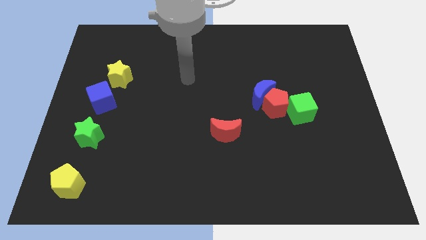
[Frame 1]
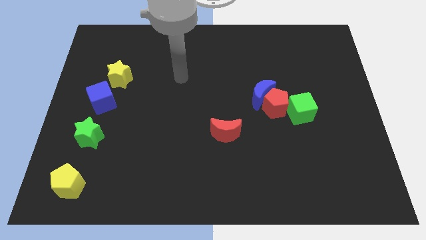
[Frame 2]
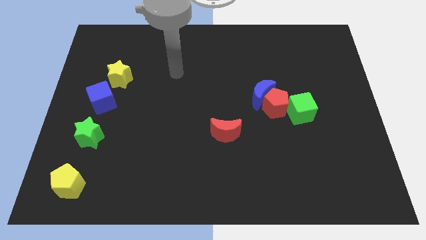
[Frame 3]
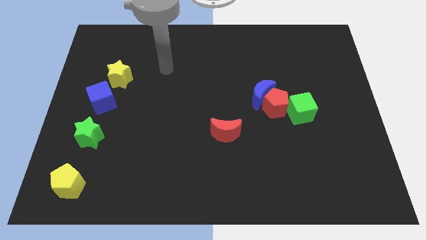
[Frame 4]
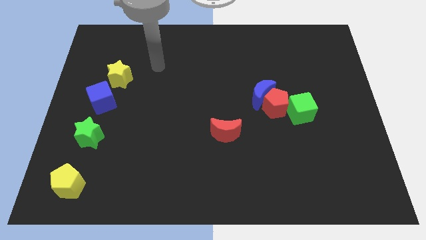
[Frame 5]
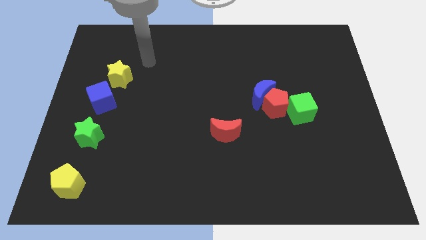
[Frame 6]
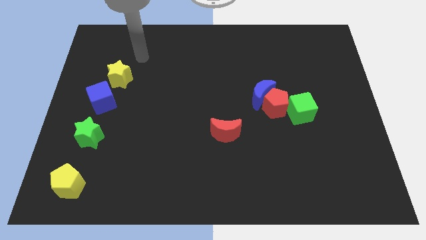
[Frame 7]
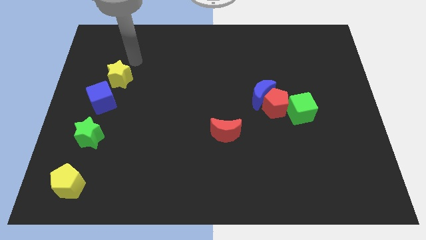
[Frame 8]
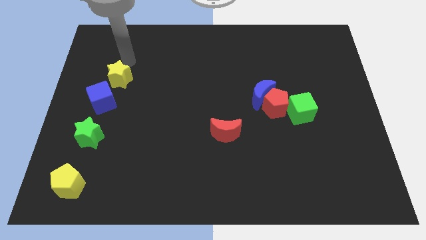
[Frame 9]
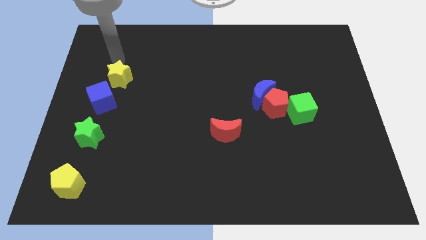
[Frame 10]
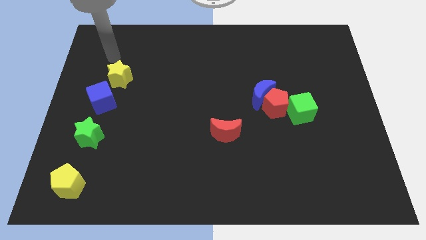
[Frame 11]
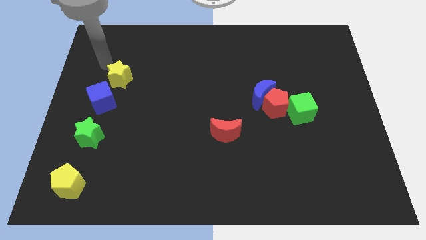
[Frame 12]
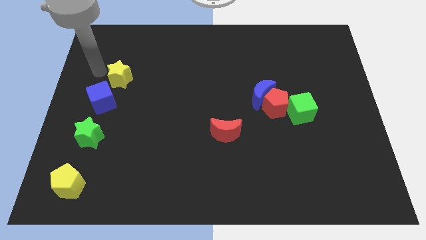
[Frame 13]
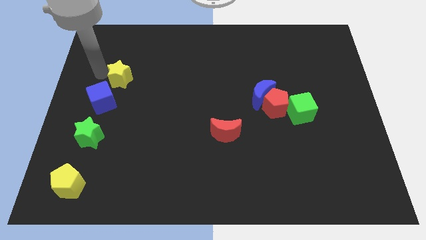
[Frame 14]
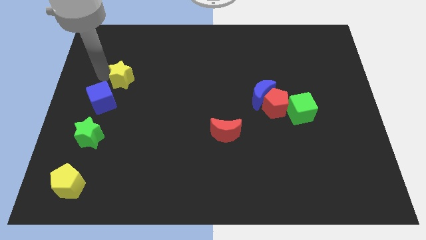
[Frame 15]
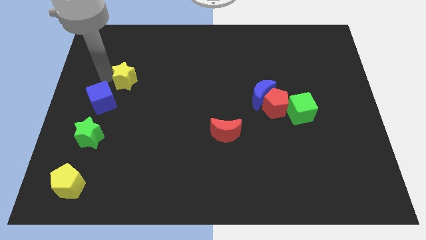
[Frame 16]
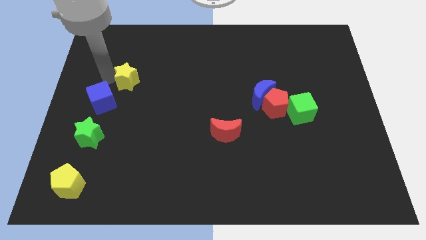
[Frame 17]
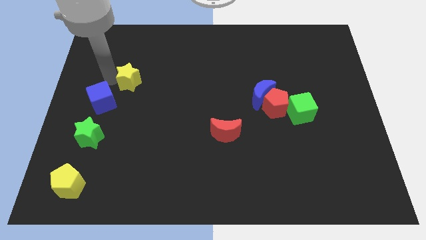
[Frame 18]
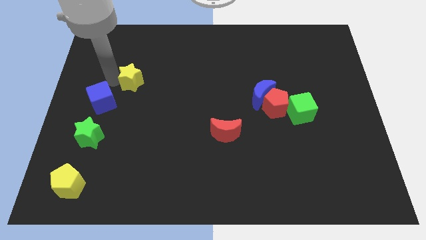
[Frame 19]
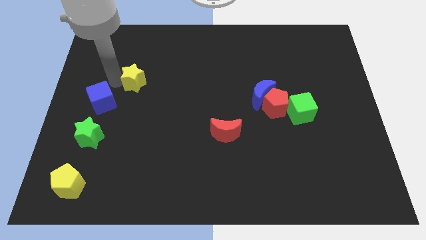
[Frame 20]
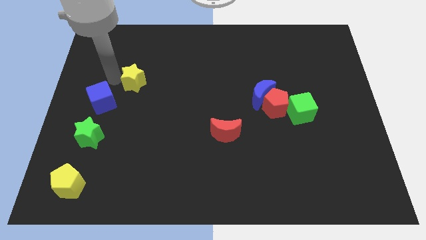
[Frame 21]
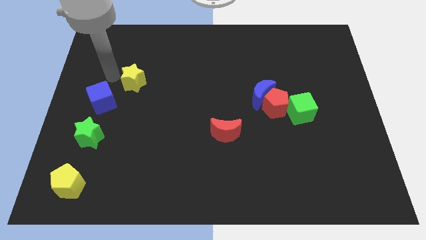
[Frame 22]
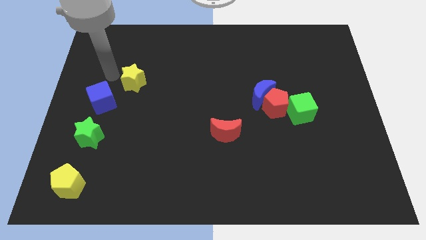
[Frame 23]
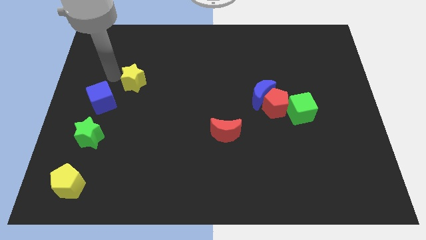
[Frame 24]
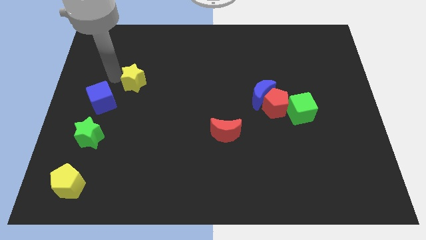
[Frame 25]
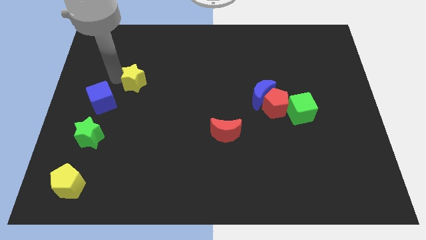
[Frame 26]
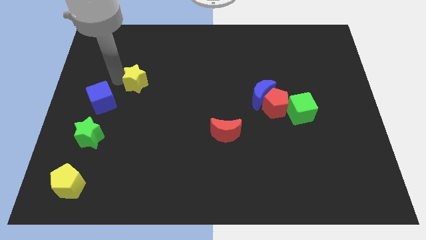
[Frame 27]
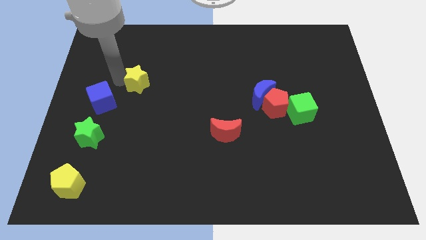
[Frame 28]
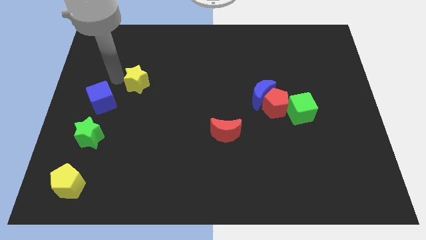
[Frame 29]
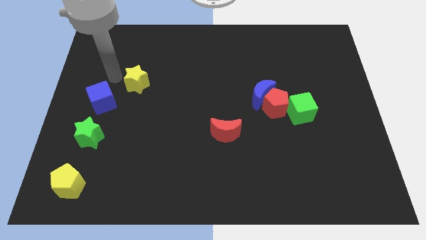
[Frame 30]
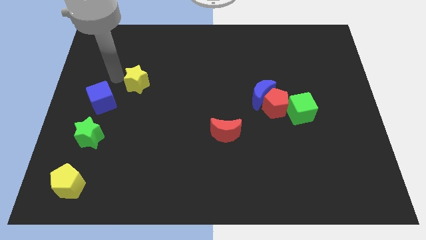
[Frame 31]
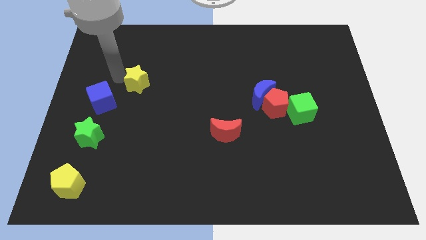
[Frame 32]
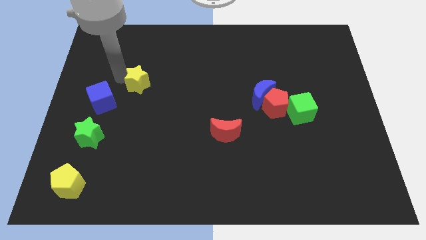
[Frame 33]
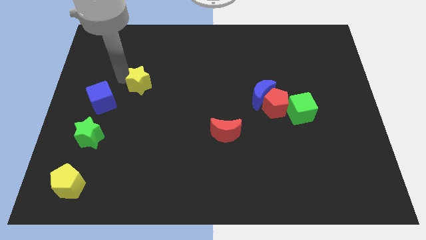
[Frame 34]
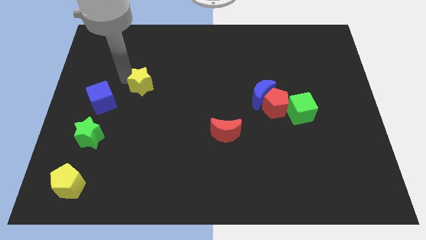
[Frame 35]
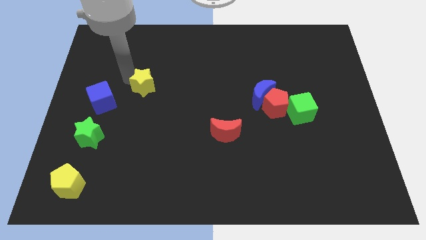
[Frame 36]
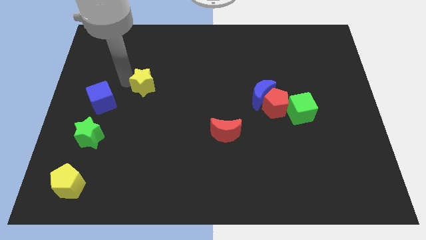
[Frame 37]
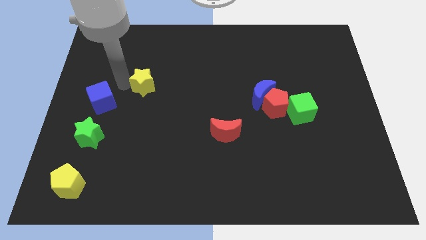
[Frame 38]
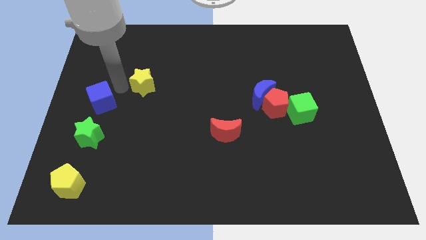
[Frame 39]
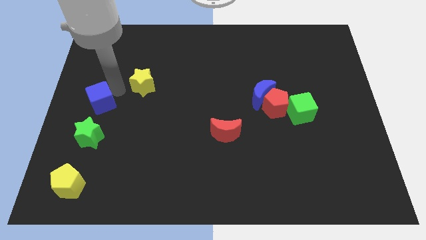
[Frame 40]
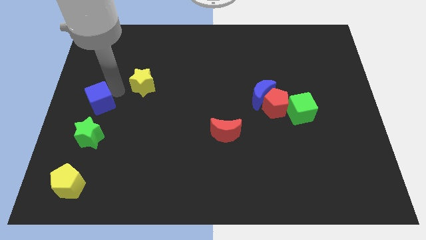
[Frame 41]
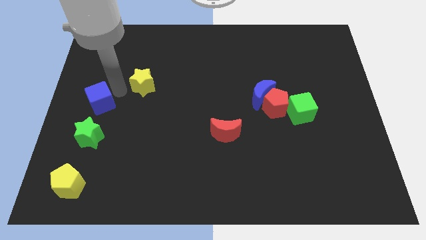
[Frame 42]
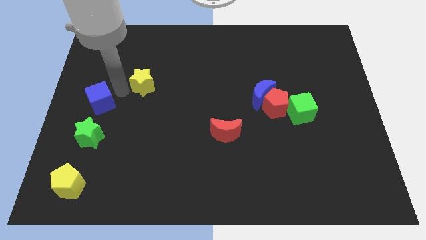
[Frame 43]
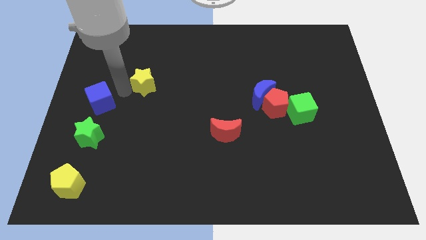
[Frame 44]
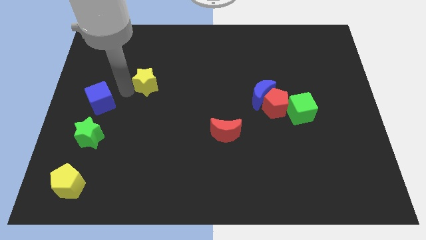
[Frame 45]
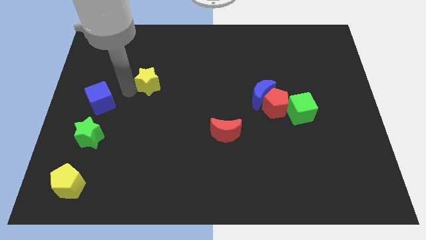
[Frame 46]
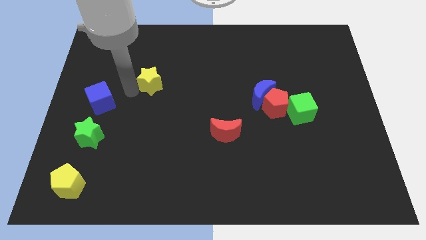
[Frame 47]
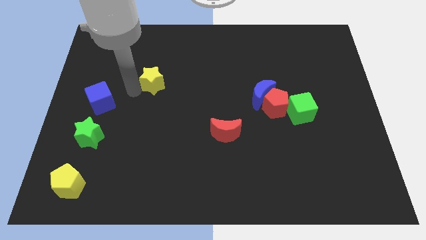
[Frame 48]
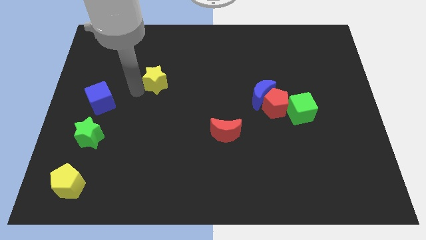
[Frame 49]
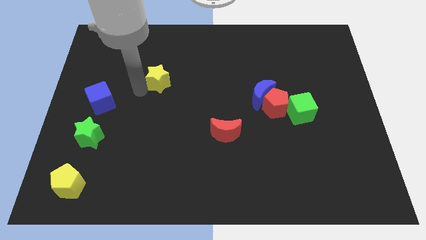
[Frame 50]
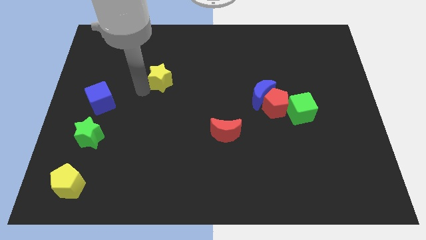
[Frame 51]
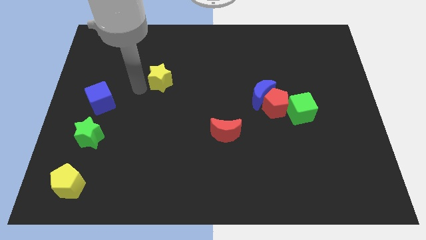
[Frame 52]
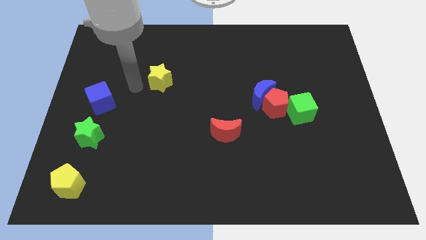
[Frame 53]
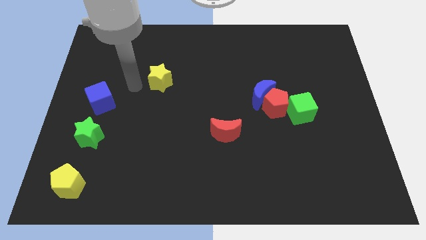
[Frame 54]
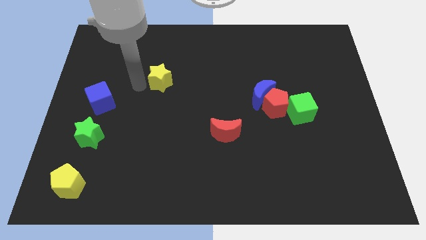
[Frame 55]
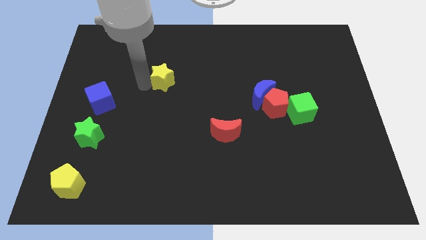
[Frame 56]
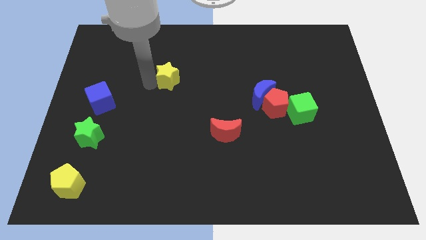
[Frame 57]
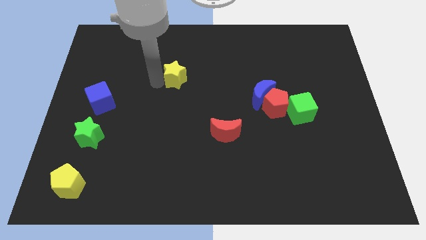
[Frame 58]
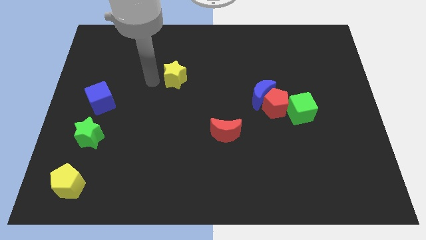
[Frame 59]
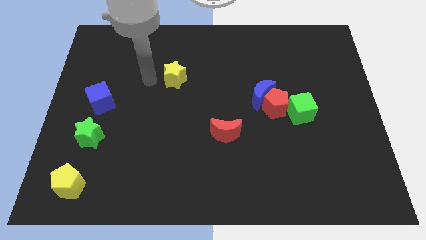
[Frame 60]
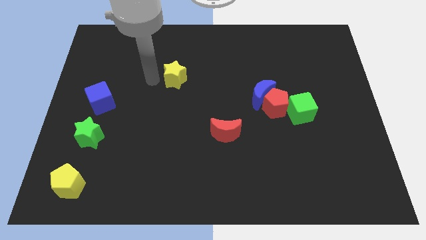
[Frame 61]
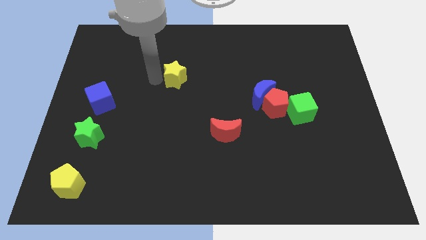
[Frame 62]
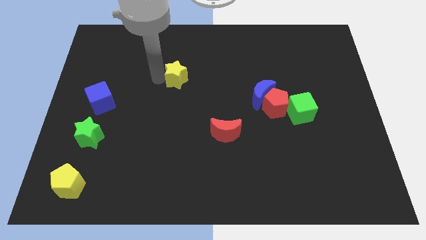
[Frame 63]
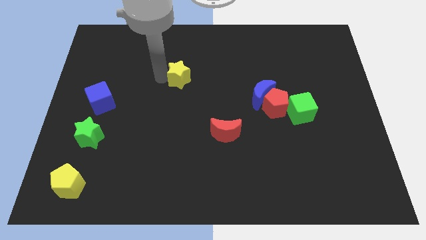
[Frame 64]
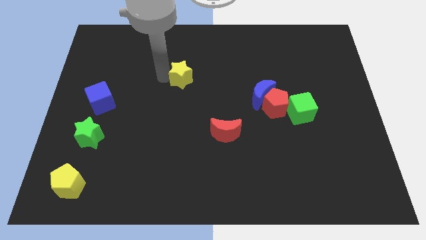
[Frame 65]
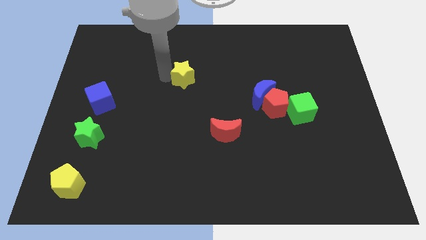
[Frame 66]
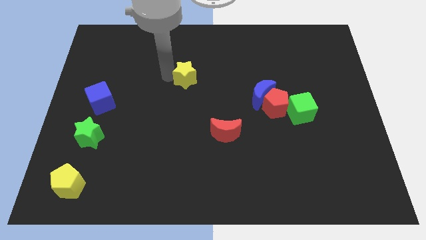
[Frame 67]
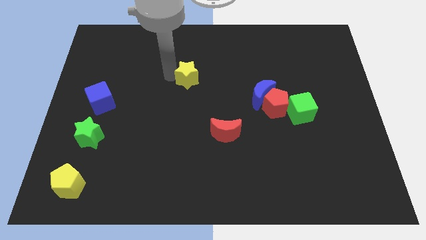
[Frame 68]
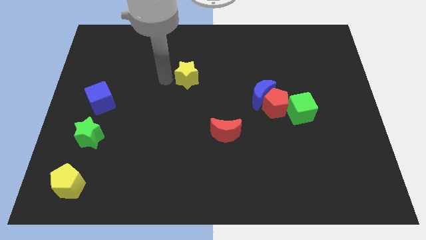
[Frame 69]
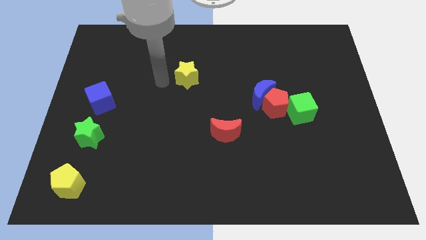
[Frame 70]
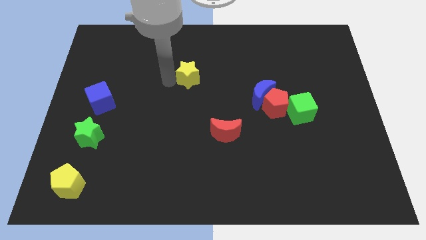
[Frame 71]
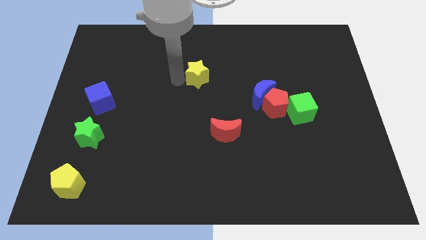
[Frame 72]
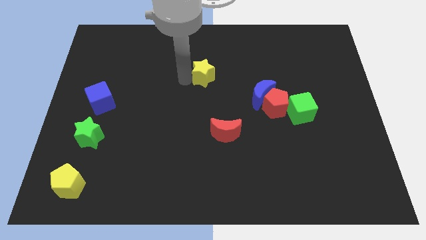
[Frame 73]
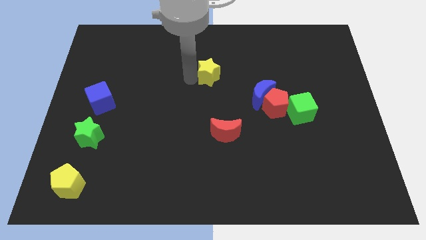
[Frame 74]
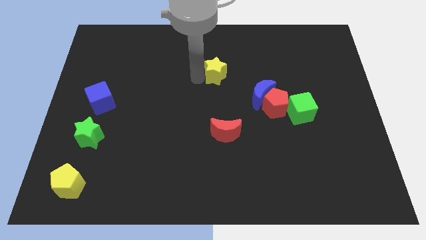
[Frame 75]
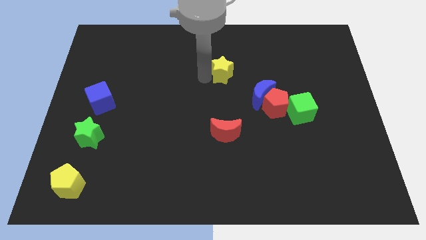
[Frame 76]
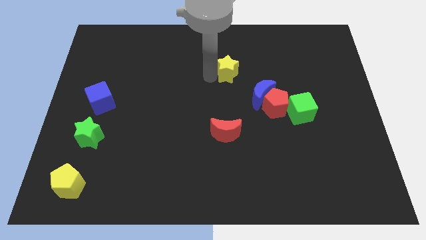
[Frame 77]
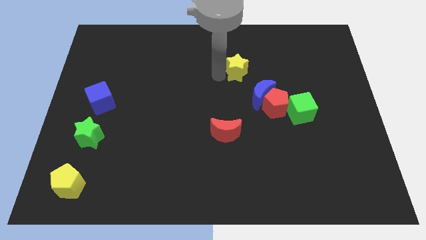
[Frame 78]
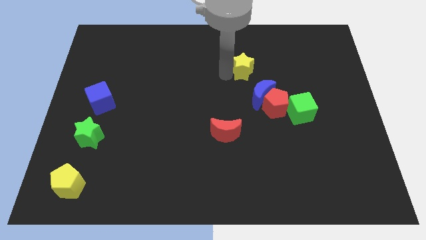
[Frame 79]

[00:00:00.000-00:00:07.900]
slide the yellow star to the top side of the blue moon

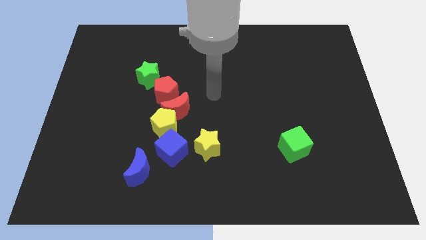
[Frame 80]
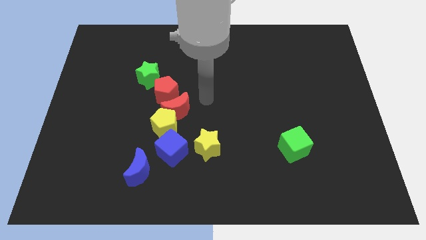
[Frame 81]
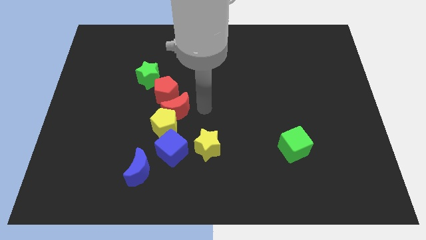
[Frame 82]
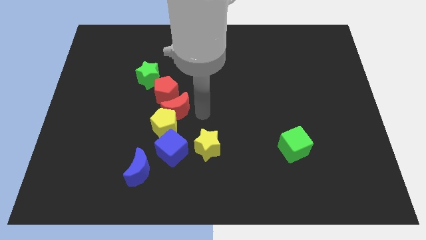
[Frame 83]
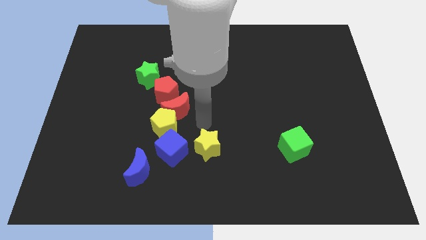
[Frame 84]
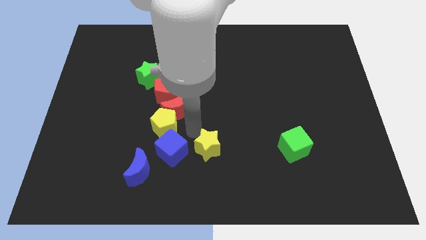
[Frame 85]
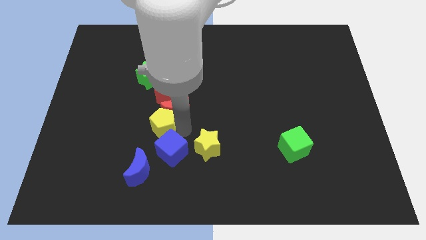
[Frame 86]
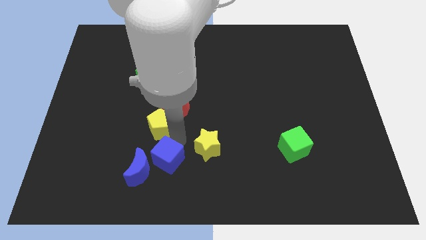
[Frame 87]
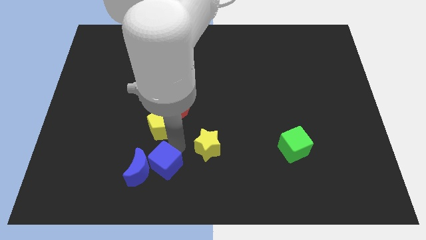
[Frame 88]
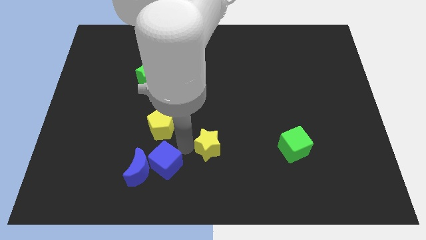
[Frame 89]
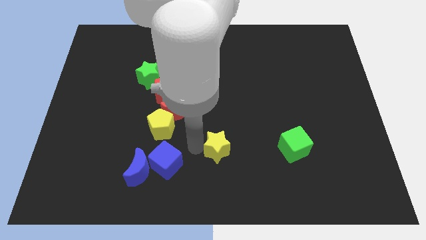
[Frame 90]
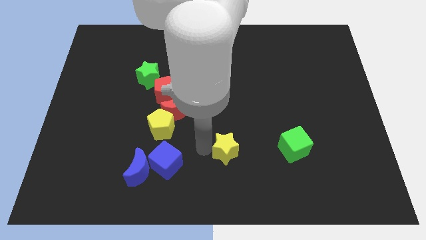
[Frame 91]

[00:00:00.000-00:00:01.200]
push the yellow star to the left side of the green cube
